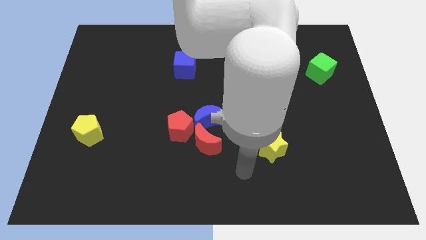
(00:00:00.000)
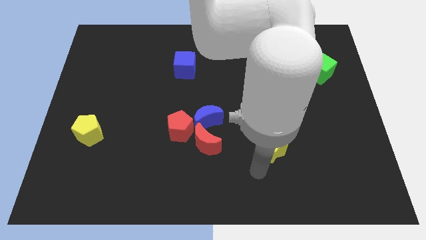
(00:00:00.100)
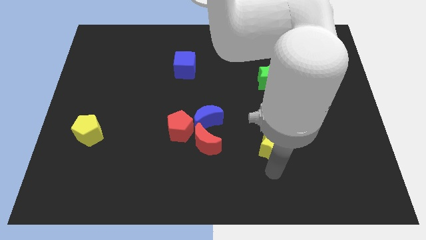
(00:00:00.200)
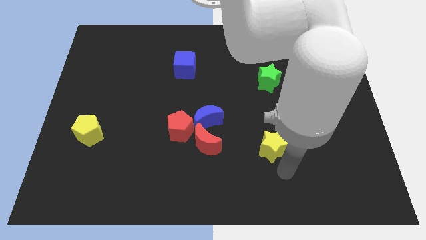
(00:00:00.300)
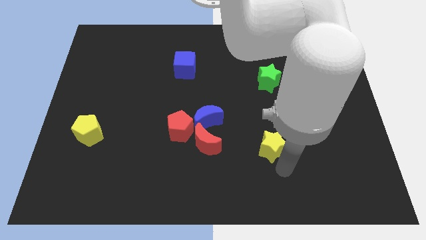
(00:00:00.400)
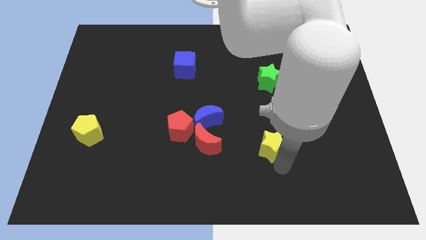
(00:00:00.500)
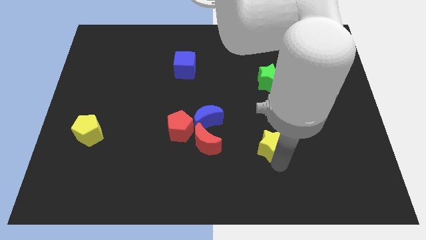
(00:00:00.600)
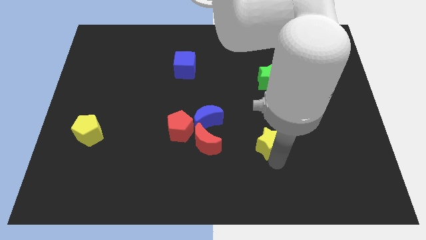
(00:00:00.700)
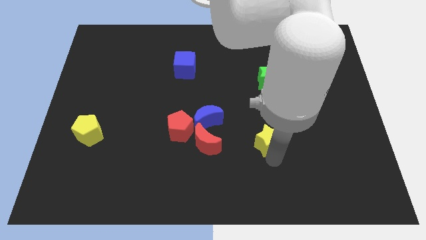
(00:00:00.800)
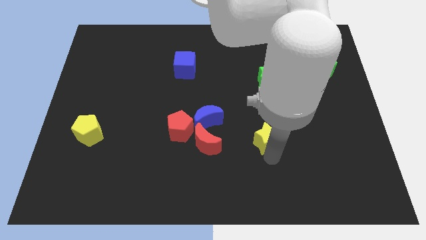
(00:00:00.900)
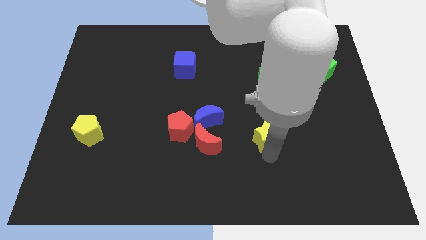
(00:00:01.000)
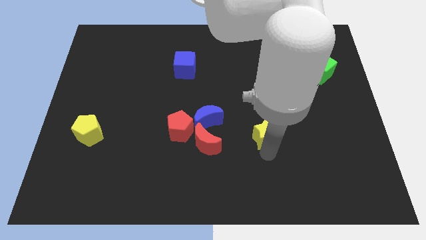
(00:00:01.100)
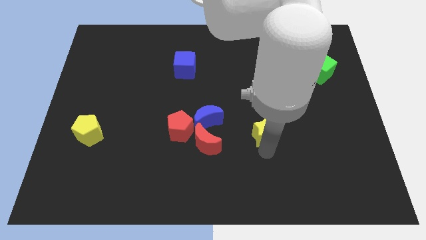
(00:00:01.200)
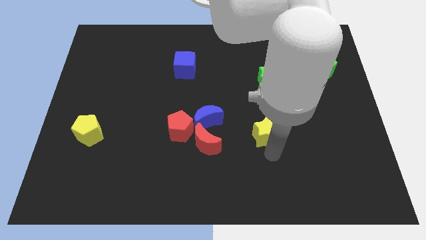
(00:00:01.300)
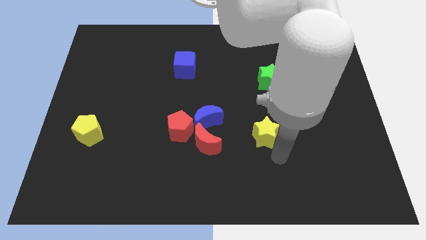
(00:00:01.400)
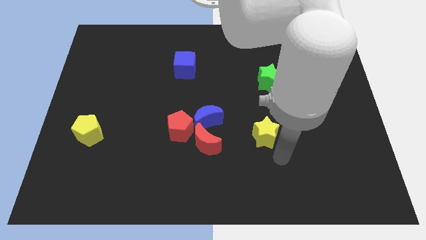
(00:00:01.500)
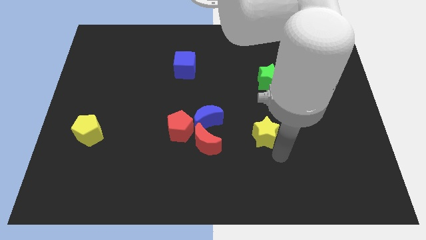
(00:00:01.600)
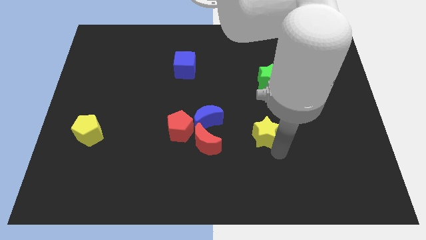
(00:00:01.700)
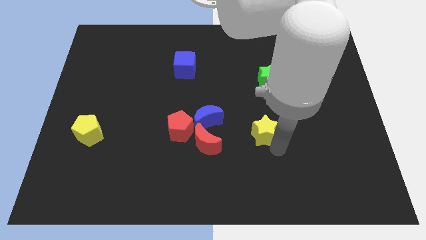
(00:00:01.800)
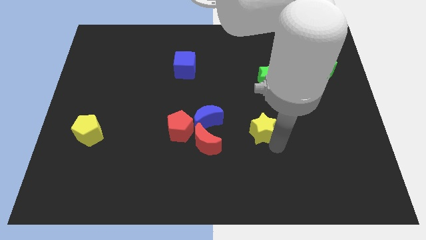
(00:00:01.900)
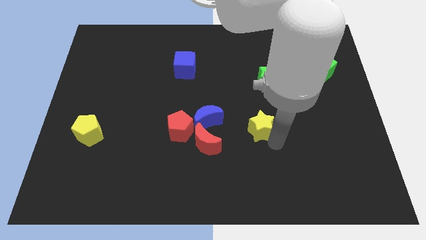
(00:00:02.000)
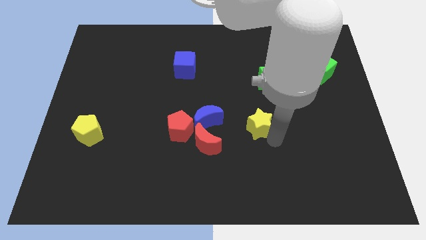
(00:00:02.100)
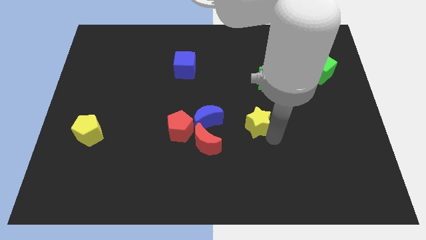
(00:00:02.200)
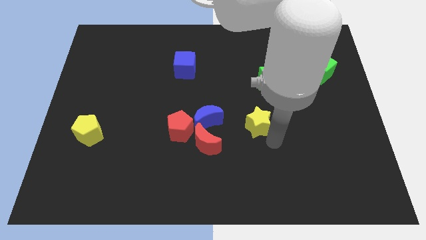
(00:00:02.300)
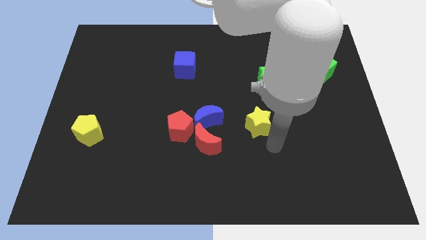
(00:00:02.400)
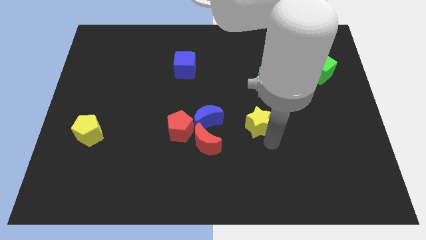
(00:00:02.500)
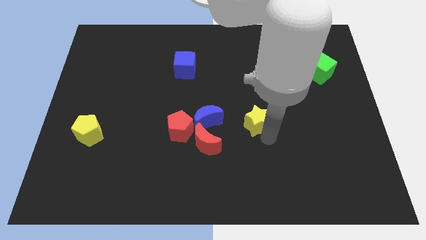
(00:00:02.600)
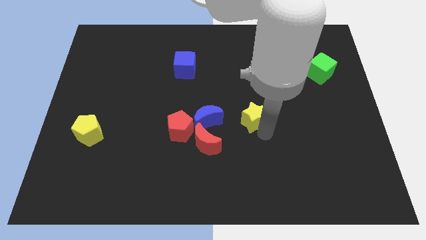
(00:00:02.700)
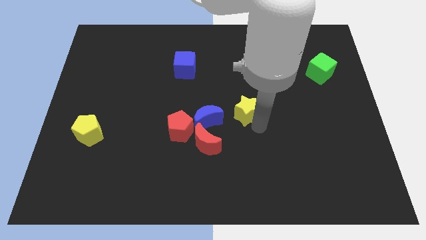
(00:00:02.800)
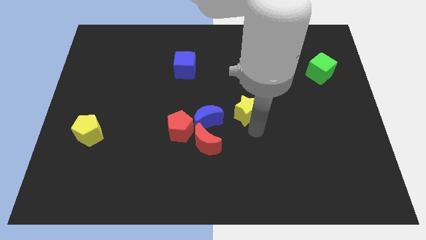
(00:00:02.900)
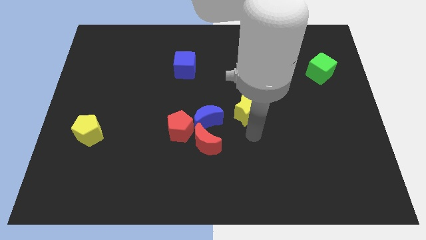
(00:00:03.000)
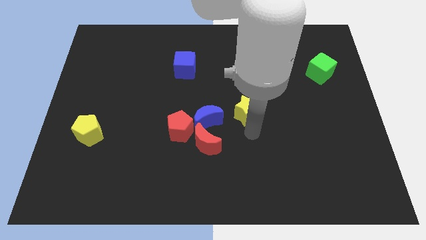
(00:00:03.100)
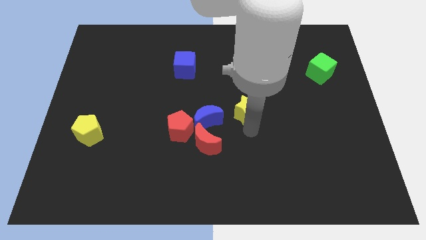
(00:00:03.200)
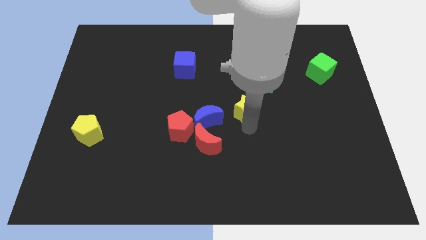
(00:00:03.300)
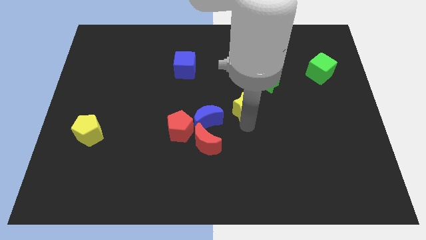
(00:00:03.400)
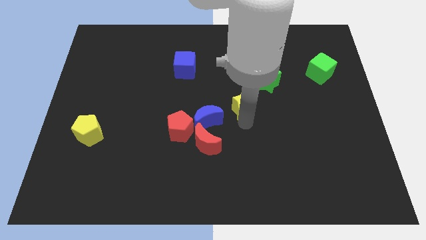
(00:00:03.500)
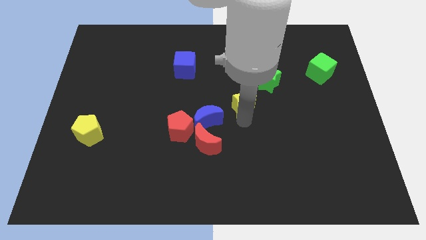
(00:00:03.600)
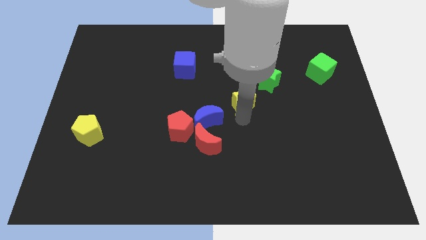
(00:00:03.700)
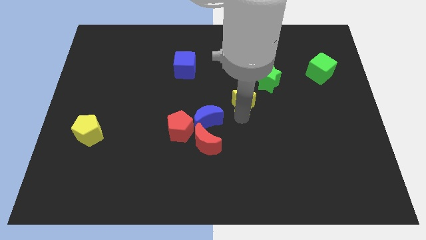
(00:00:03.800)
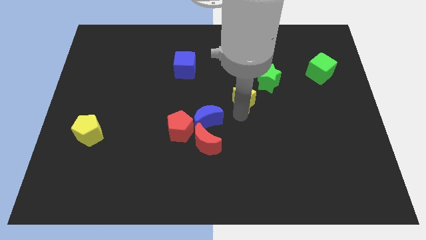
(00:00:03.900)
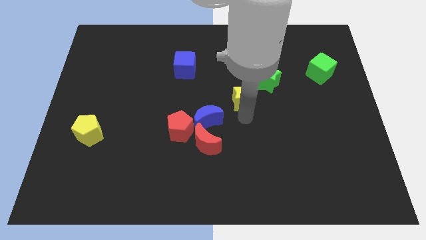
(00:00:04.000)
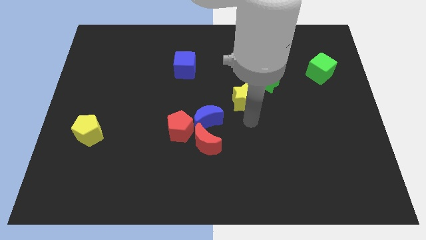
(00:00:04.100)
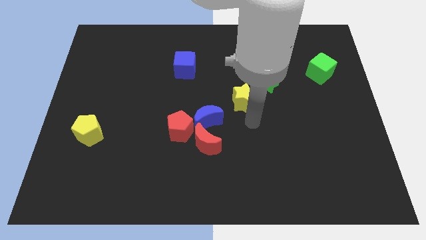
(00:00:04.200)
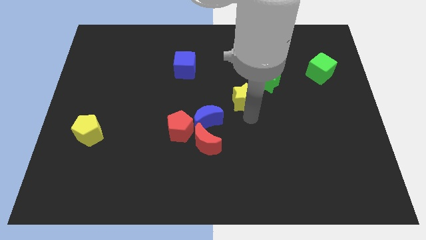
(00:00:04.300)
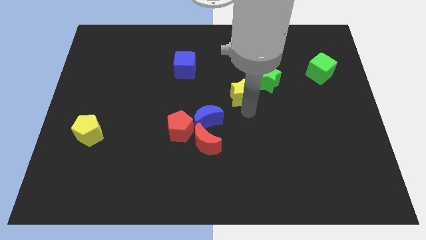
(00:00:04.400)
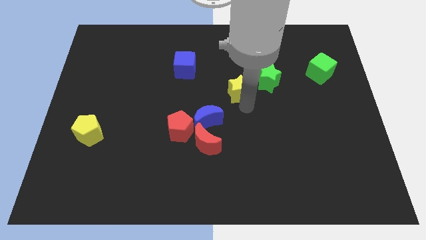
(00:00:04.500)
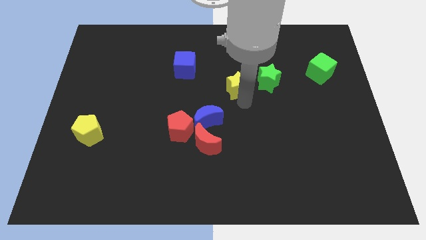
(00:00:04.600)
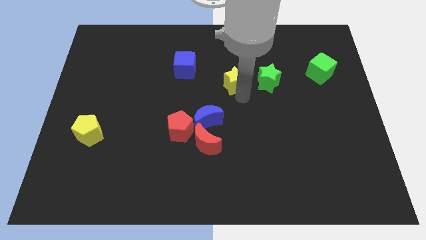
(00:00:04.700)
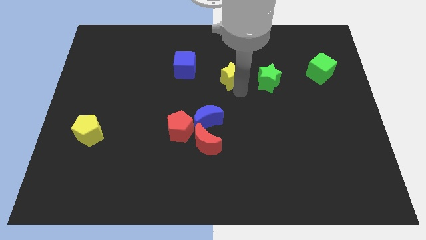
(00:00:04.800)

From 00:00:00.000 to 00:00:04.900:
push the yellow star to the right side of the blue cube

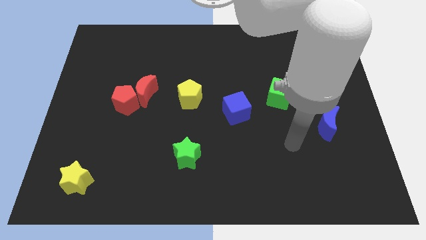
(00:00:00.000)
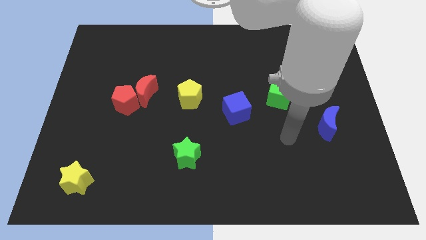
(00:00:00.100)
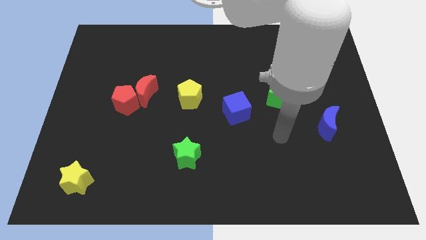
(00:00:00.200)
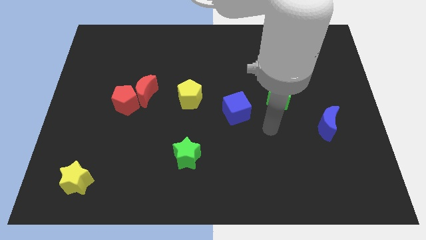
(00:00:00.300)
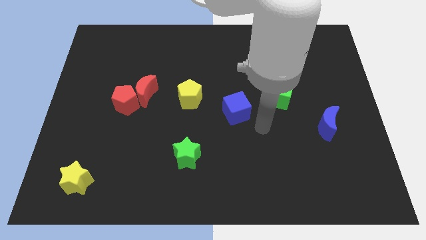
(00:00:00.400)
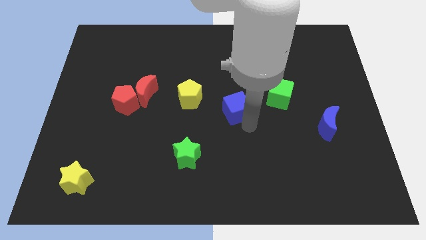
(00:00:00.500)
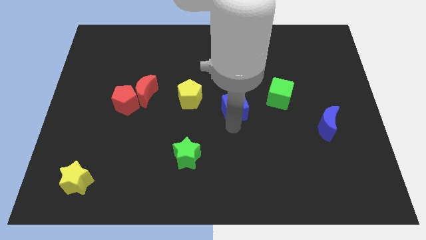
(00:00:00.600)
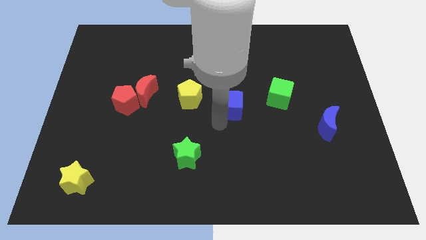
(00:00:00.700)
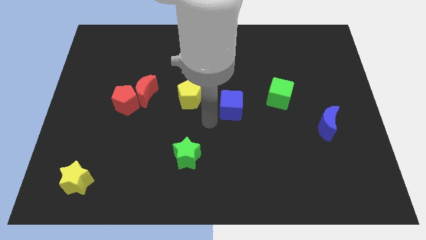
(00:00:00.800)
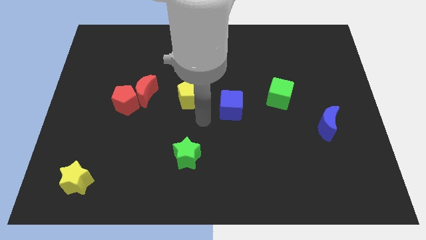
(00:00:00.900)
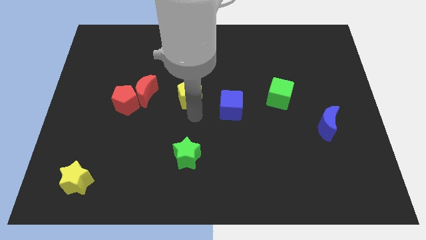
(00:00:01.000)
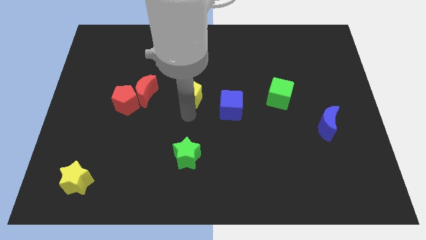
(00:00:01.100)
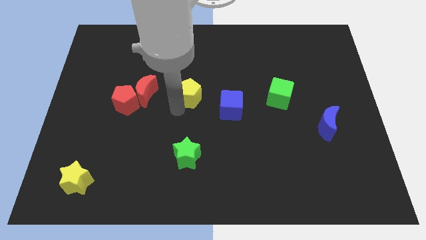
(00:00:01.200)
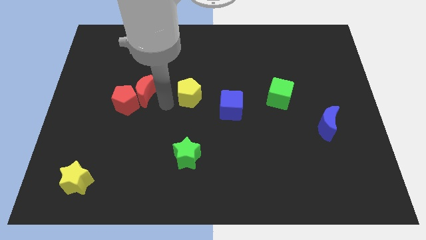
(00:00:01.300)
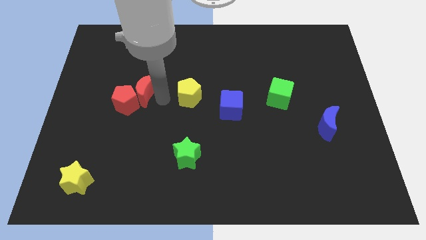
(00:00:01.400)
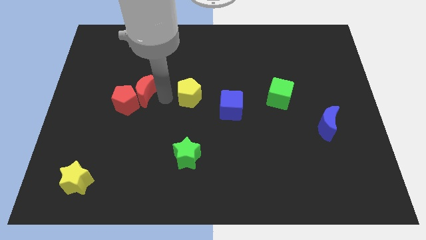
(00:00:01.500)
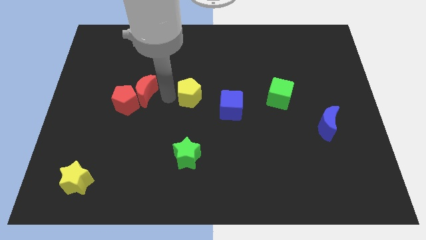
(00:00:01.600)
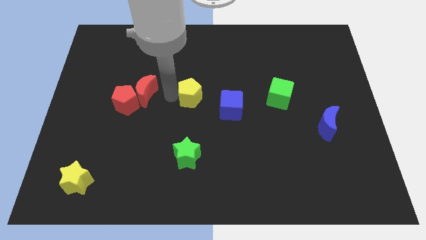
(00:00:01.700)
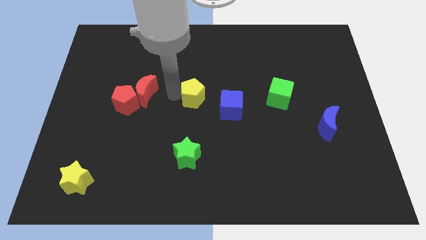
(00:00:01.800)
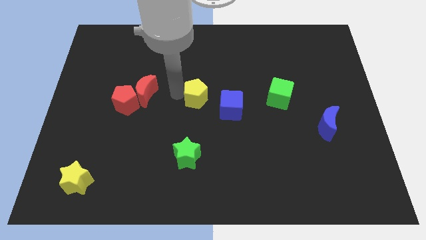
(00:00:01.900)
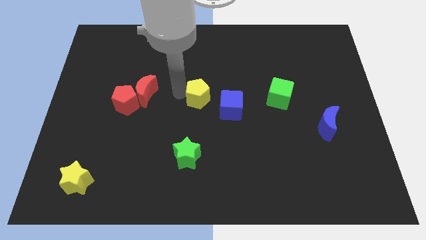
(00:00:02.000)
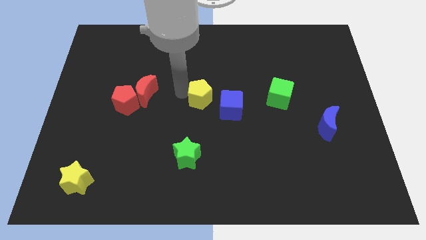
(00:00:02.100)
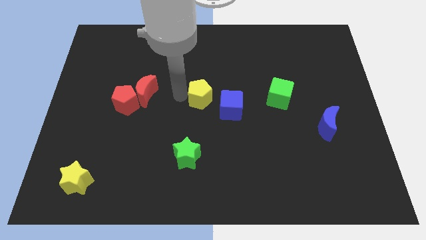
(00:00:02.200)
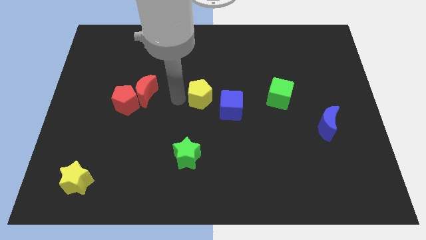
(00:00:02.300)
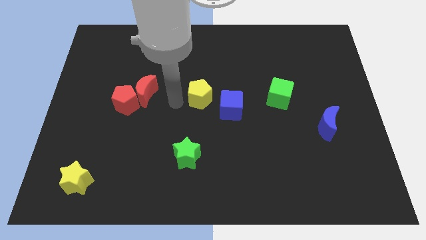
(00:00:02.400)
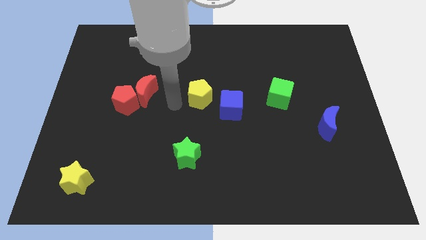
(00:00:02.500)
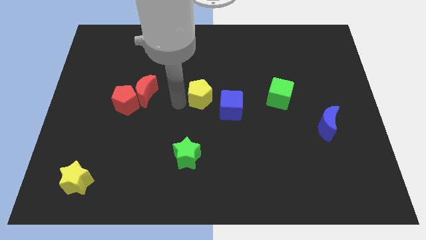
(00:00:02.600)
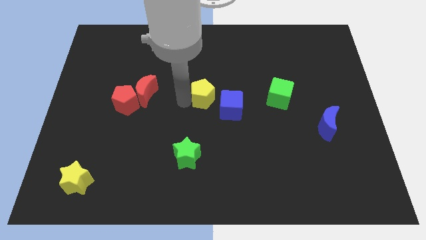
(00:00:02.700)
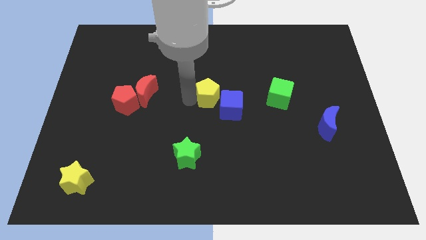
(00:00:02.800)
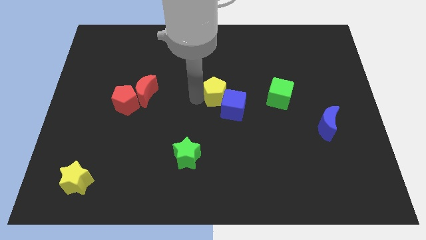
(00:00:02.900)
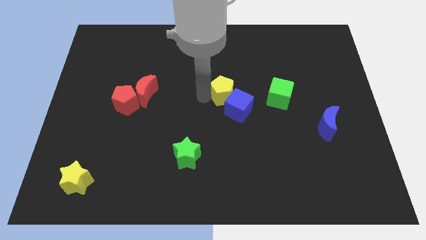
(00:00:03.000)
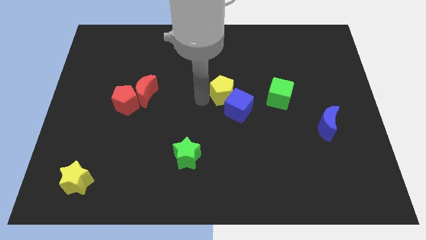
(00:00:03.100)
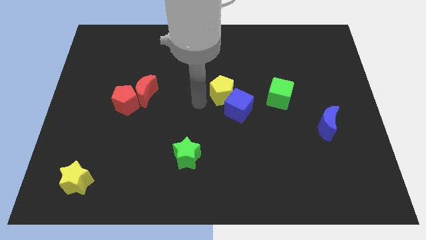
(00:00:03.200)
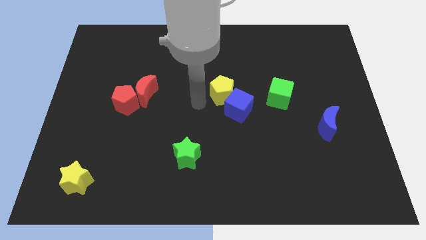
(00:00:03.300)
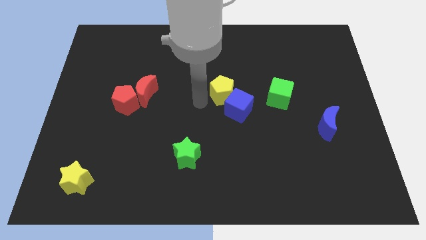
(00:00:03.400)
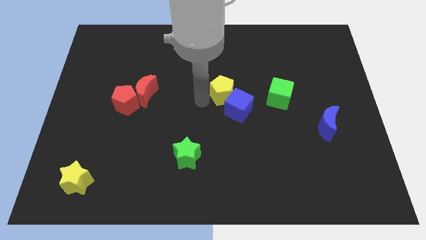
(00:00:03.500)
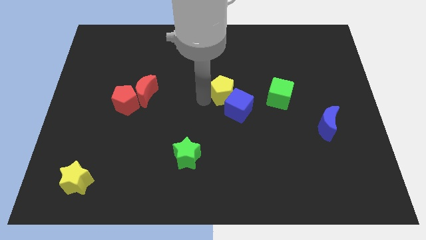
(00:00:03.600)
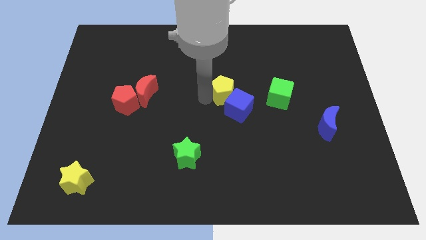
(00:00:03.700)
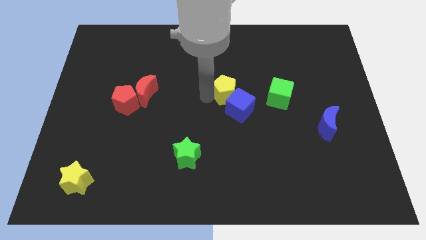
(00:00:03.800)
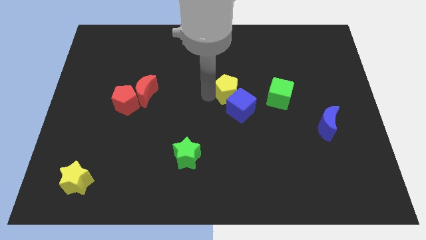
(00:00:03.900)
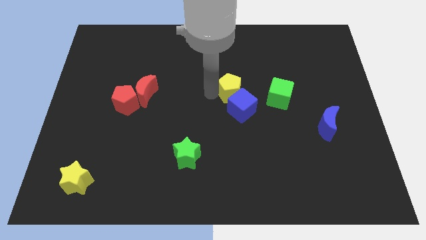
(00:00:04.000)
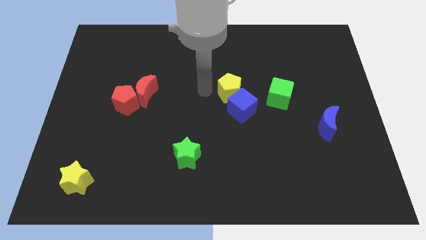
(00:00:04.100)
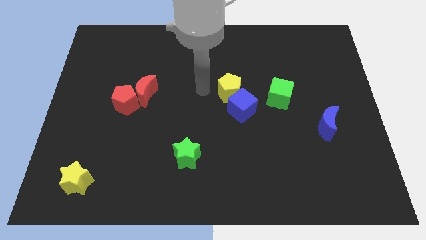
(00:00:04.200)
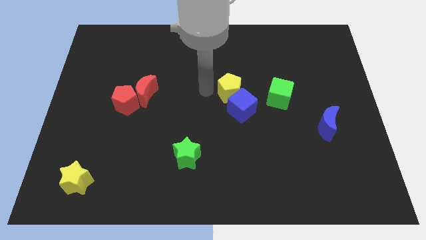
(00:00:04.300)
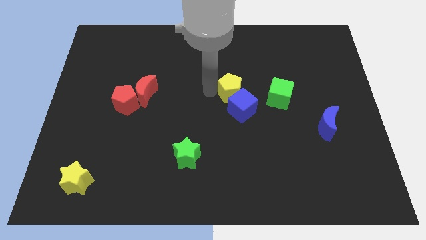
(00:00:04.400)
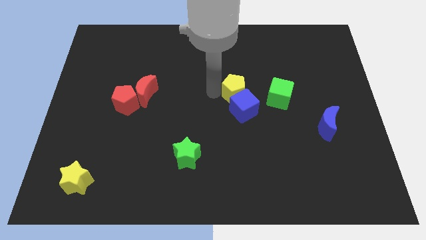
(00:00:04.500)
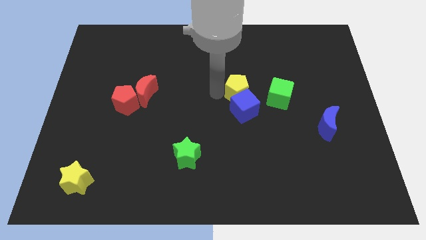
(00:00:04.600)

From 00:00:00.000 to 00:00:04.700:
push the yellow pentagon to the top right of the blue cube
